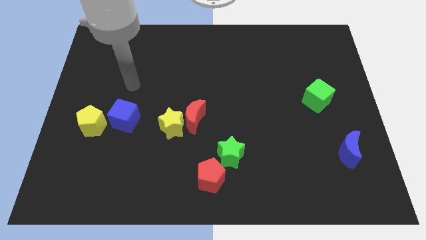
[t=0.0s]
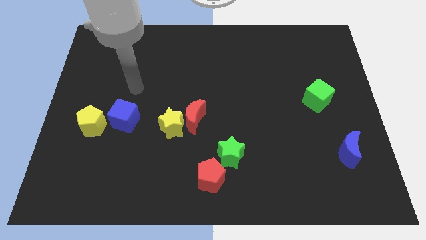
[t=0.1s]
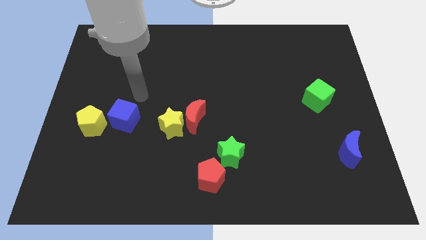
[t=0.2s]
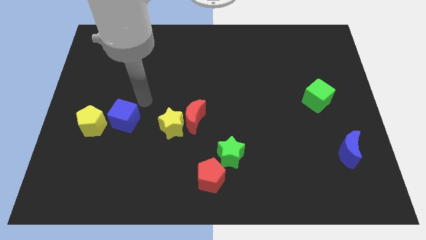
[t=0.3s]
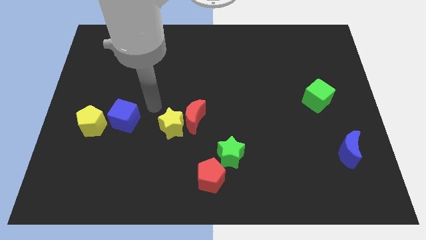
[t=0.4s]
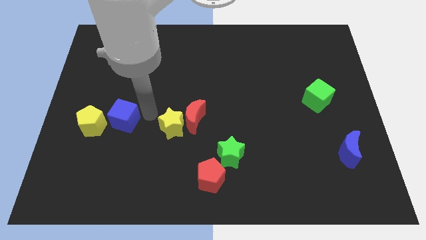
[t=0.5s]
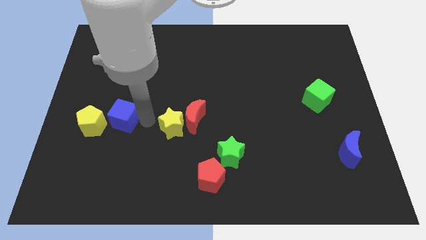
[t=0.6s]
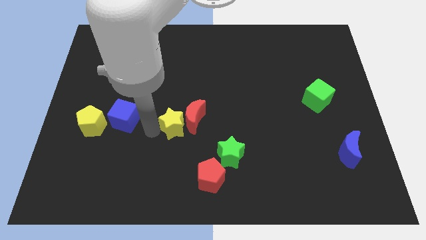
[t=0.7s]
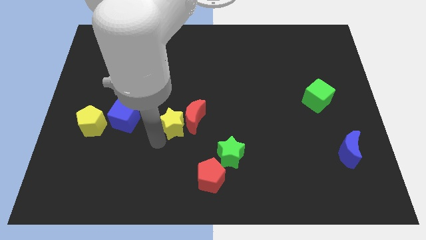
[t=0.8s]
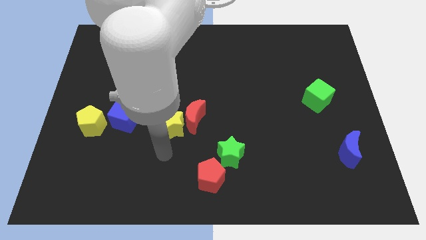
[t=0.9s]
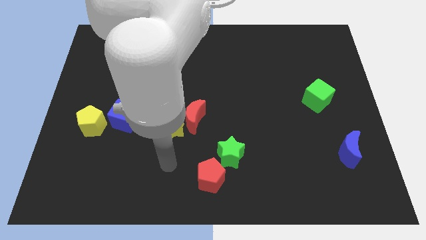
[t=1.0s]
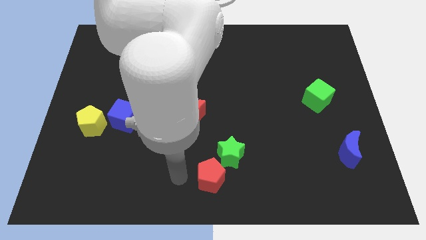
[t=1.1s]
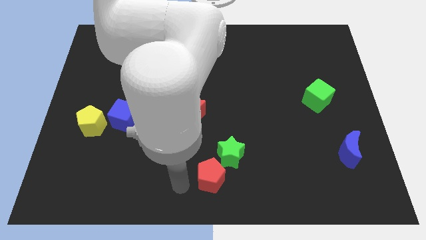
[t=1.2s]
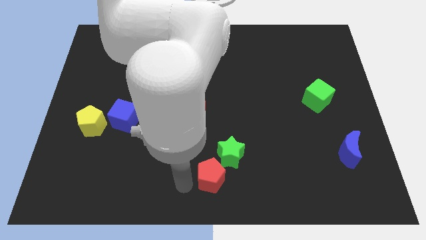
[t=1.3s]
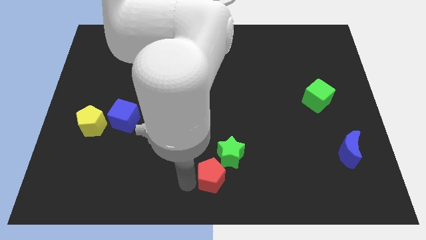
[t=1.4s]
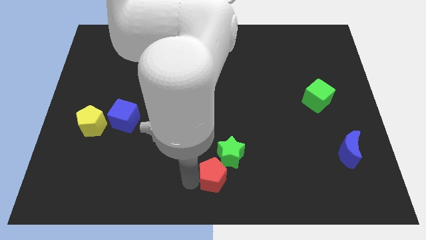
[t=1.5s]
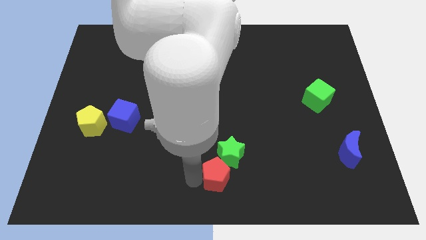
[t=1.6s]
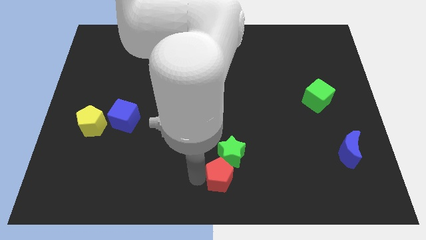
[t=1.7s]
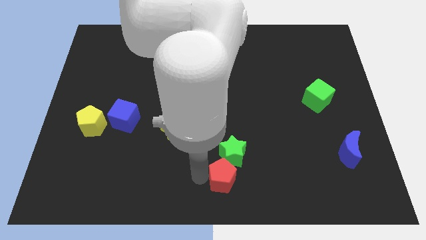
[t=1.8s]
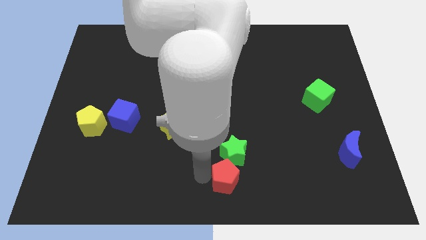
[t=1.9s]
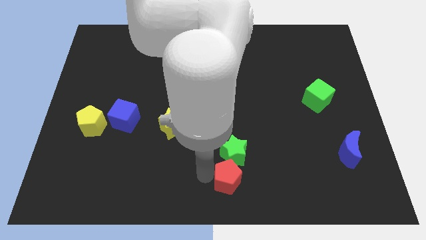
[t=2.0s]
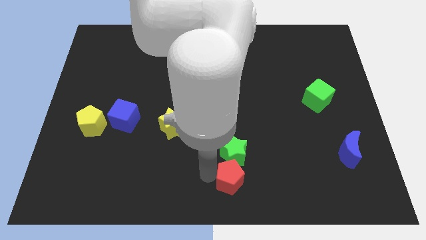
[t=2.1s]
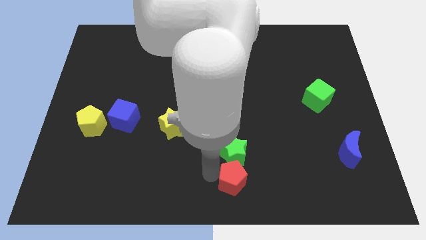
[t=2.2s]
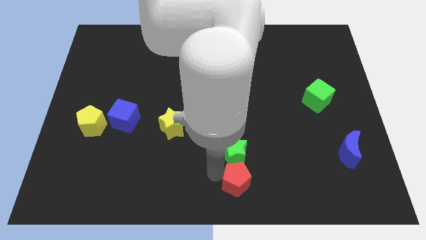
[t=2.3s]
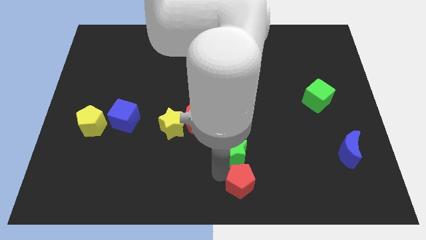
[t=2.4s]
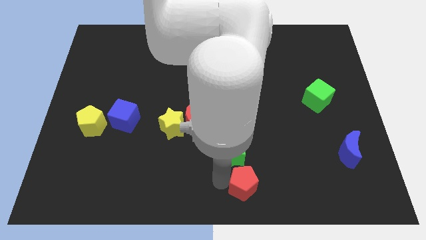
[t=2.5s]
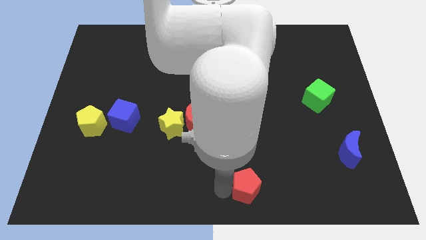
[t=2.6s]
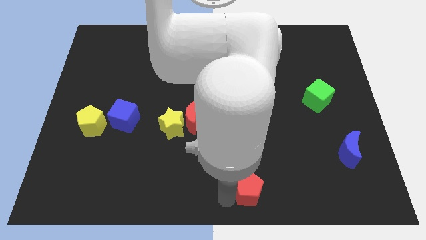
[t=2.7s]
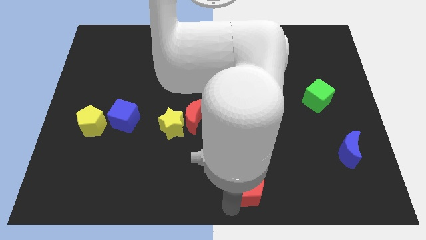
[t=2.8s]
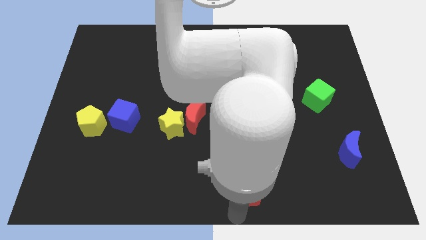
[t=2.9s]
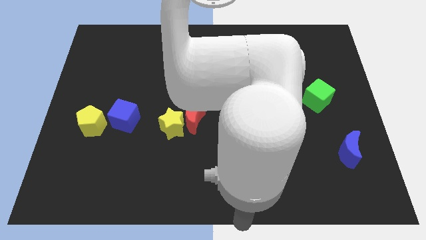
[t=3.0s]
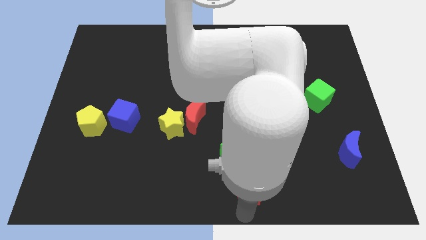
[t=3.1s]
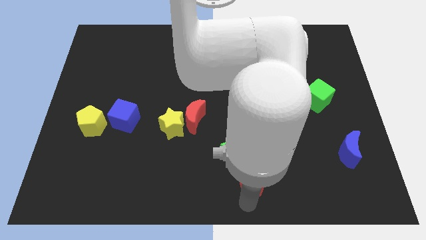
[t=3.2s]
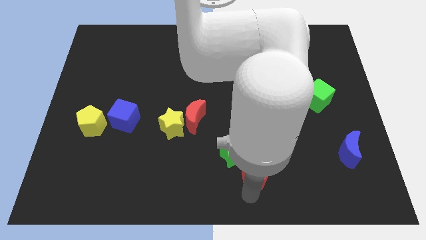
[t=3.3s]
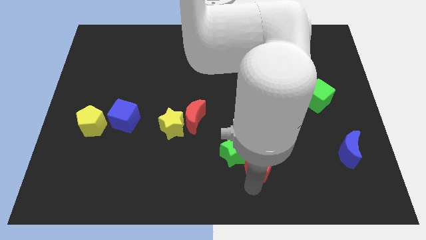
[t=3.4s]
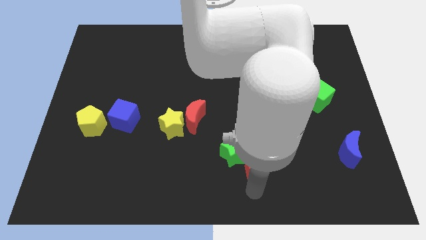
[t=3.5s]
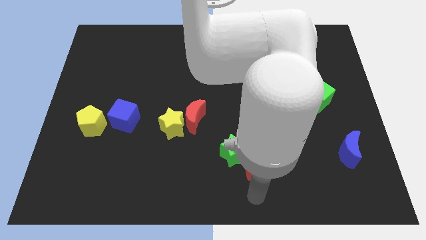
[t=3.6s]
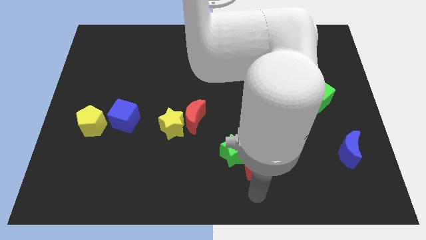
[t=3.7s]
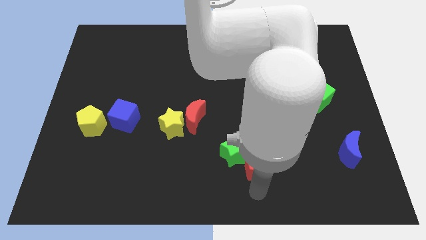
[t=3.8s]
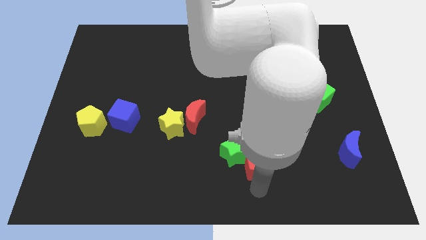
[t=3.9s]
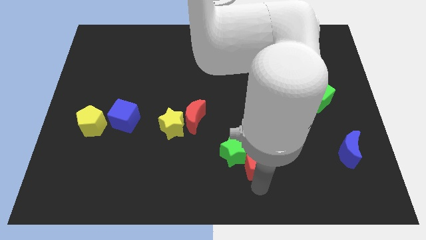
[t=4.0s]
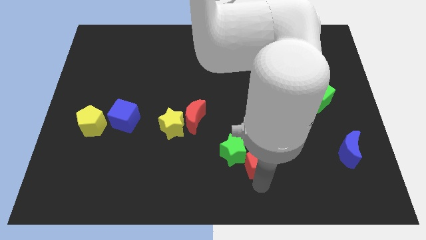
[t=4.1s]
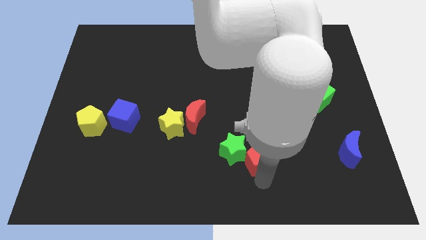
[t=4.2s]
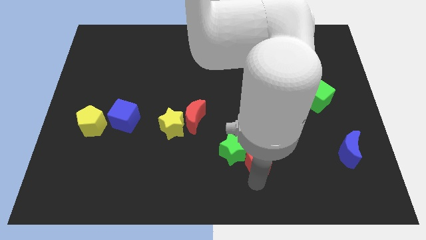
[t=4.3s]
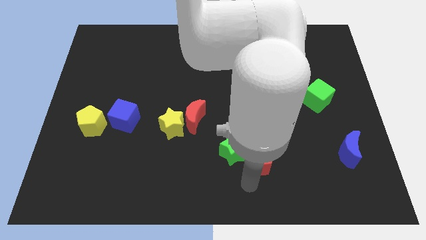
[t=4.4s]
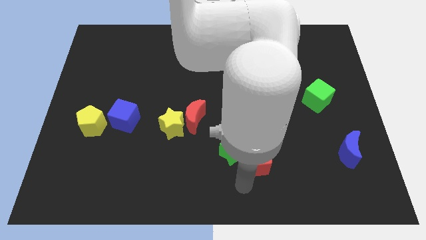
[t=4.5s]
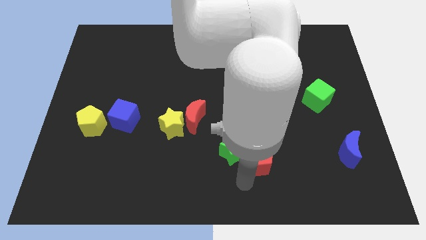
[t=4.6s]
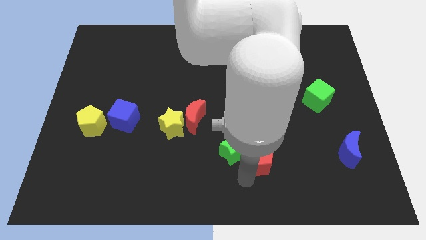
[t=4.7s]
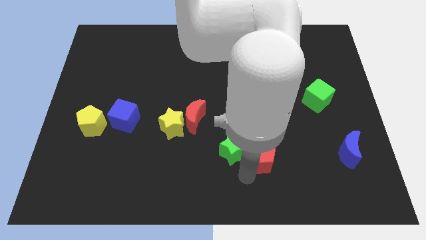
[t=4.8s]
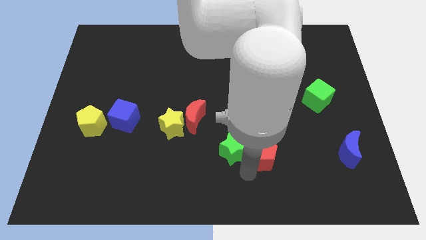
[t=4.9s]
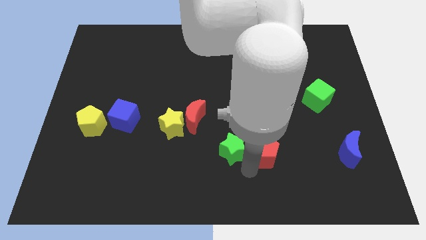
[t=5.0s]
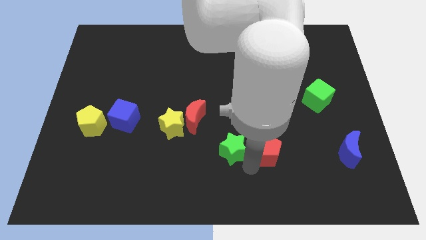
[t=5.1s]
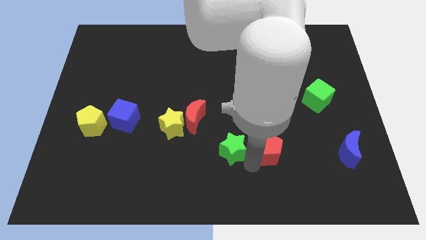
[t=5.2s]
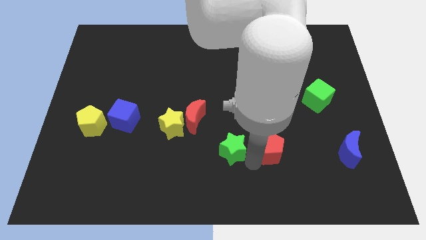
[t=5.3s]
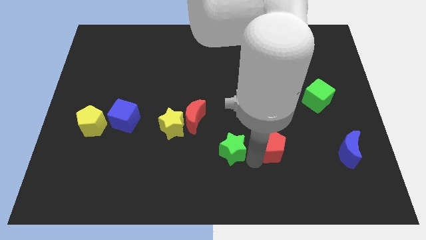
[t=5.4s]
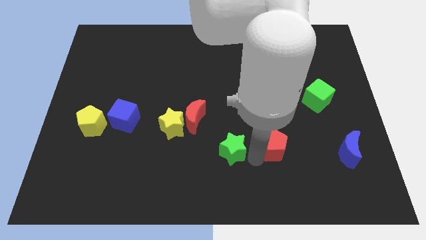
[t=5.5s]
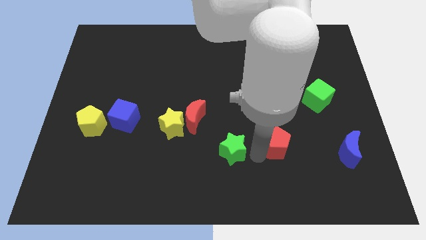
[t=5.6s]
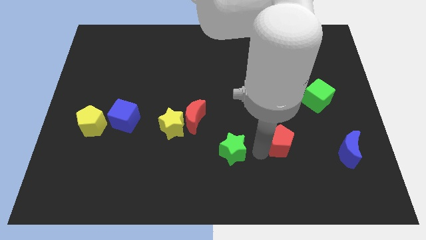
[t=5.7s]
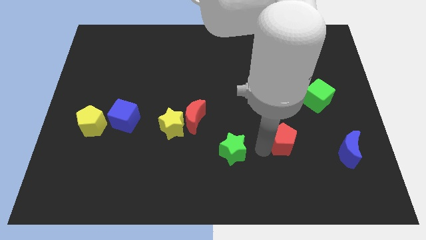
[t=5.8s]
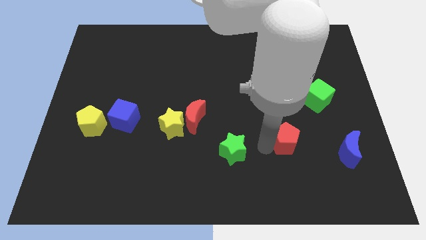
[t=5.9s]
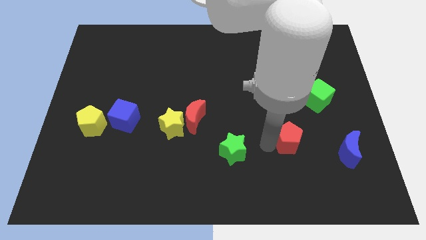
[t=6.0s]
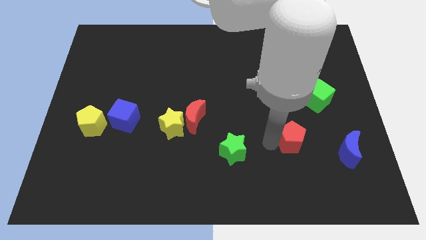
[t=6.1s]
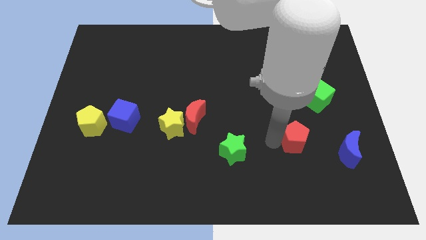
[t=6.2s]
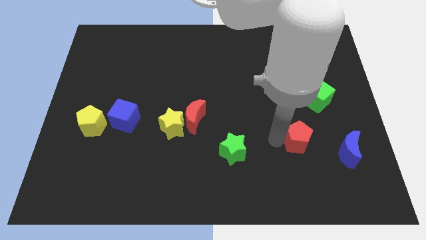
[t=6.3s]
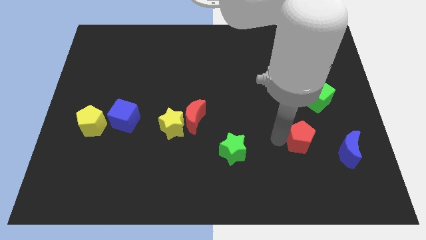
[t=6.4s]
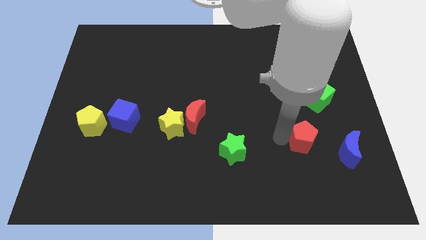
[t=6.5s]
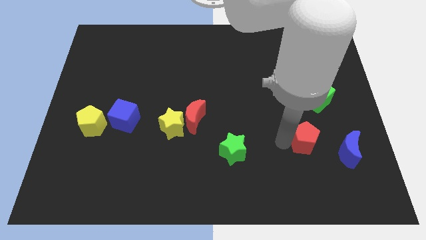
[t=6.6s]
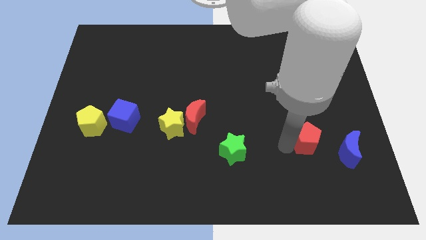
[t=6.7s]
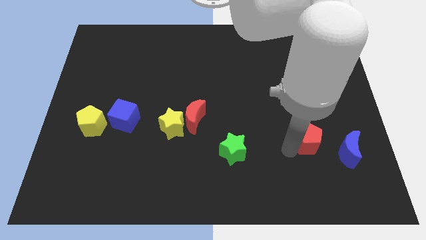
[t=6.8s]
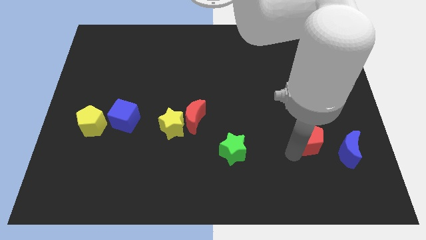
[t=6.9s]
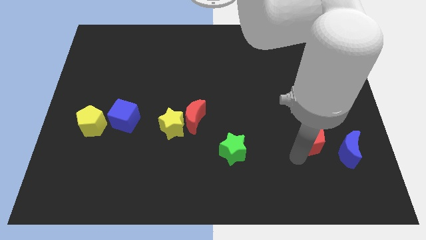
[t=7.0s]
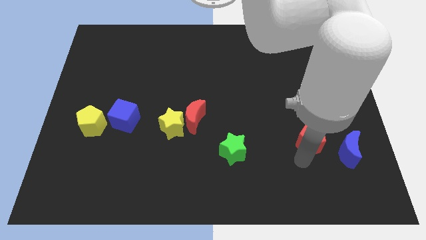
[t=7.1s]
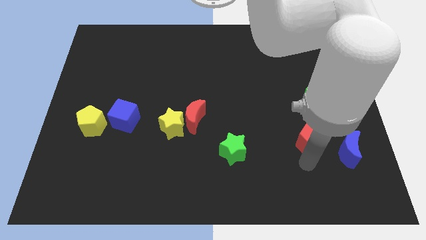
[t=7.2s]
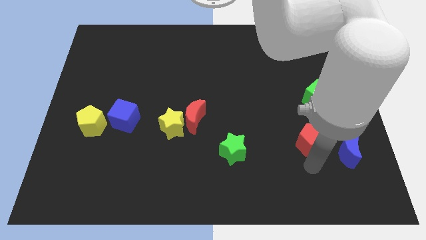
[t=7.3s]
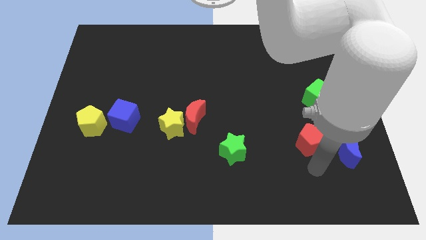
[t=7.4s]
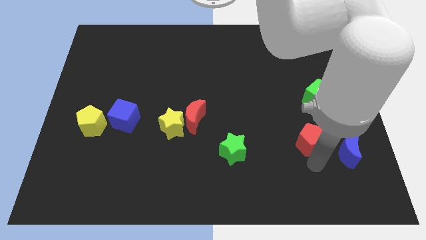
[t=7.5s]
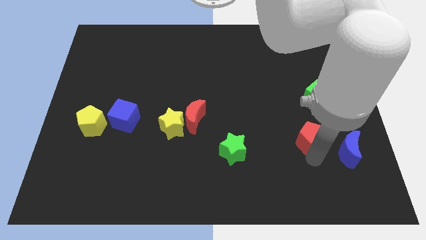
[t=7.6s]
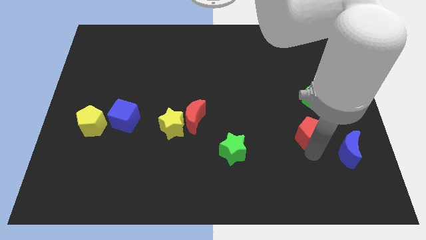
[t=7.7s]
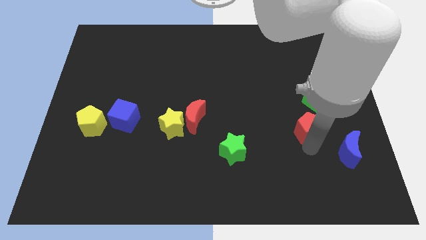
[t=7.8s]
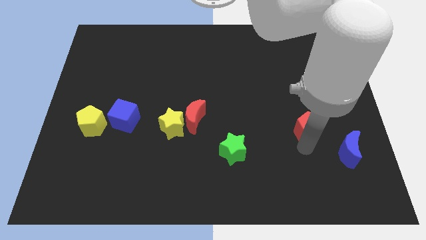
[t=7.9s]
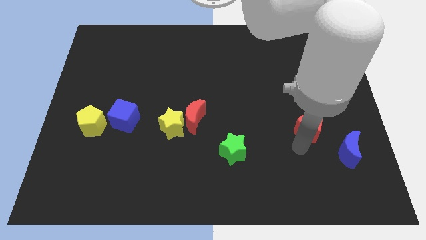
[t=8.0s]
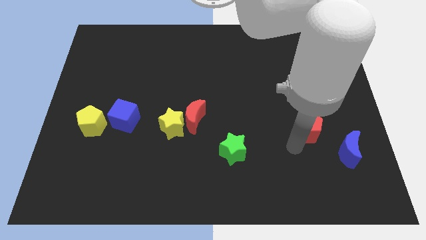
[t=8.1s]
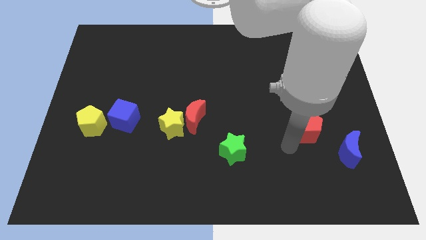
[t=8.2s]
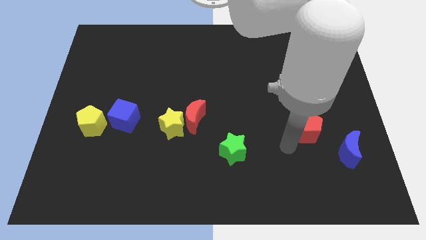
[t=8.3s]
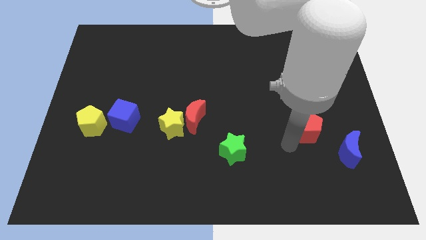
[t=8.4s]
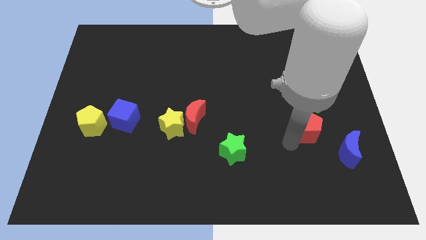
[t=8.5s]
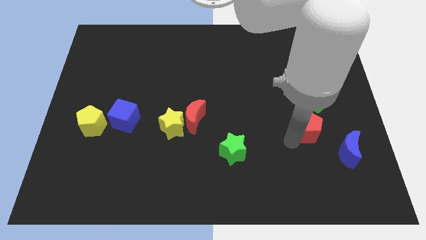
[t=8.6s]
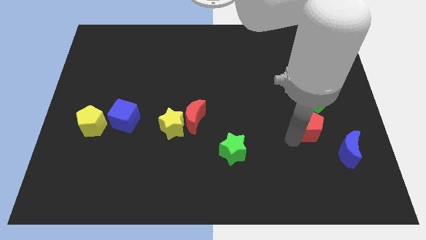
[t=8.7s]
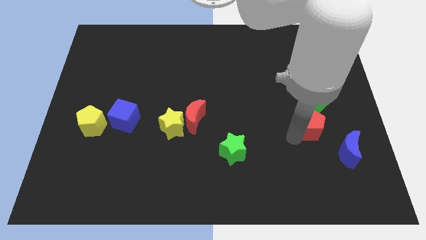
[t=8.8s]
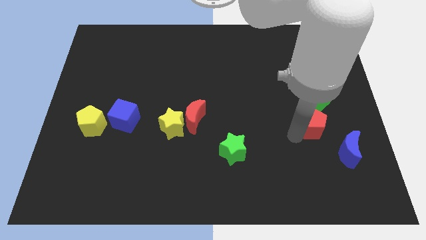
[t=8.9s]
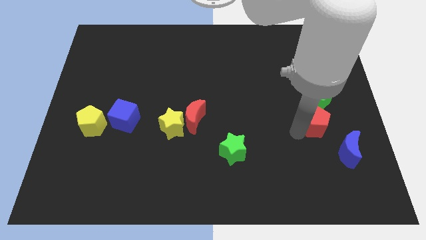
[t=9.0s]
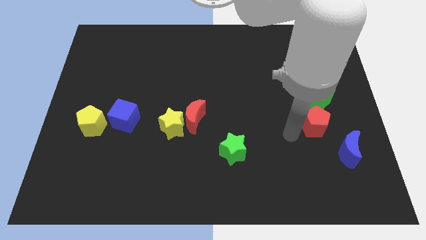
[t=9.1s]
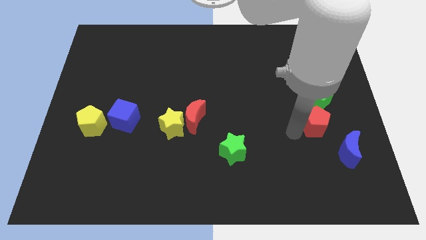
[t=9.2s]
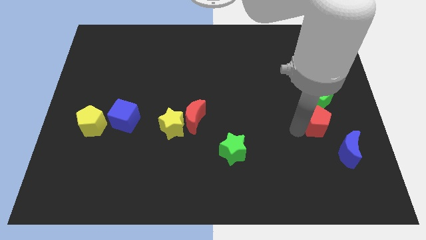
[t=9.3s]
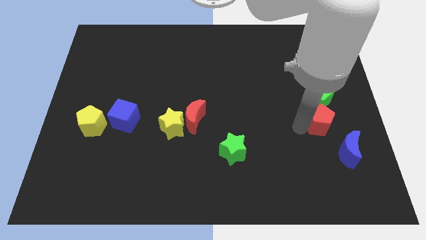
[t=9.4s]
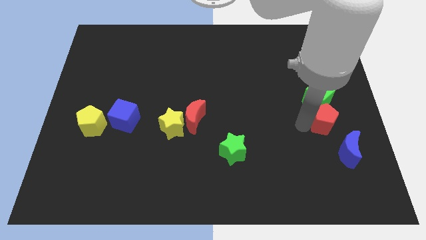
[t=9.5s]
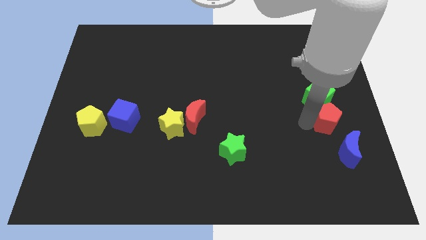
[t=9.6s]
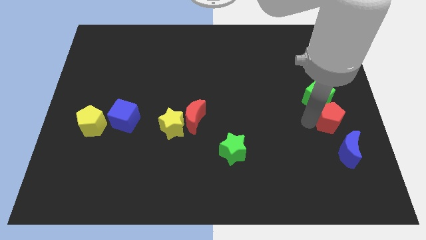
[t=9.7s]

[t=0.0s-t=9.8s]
push the red pentagon to the right side of the board
